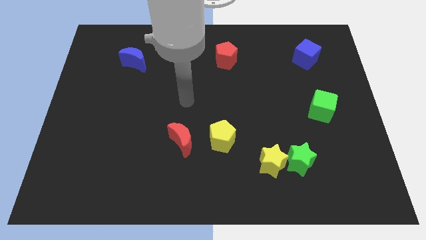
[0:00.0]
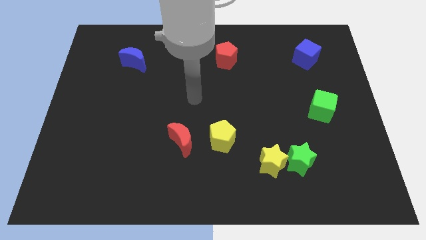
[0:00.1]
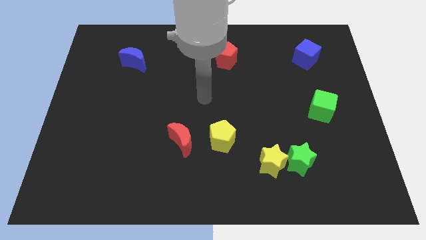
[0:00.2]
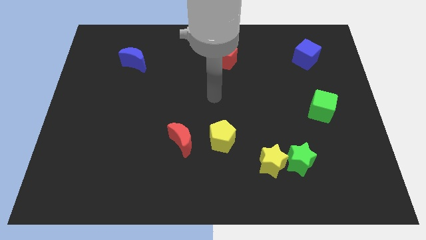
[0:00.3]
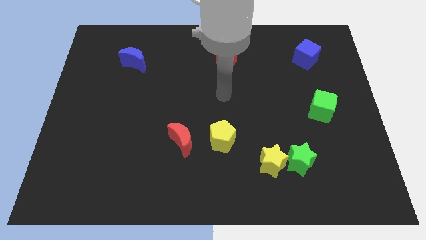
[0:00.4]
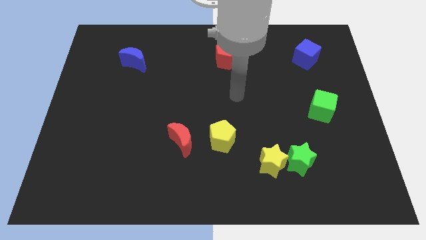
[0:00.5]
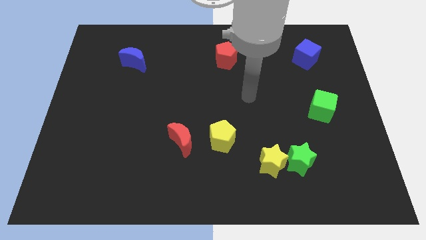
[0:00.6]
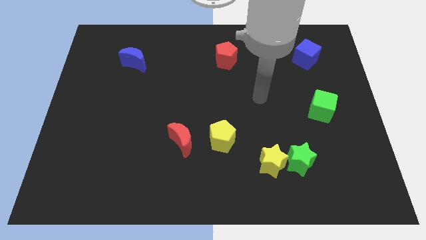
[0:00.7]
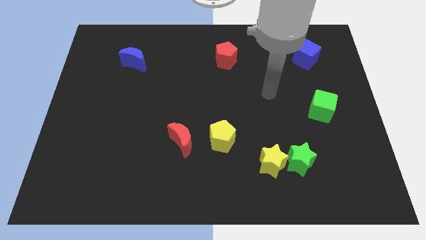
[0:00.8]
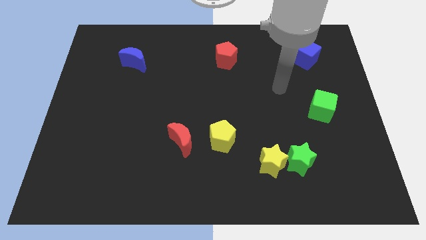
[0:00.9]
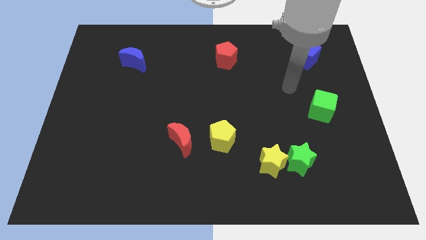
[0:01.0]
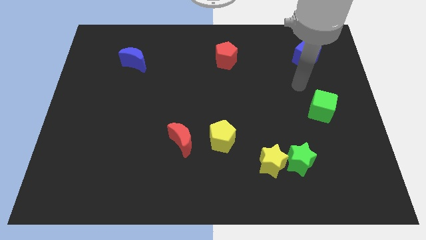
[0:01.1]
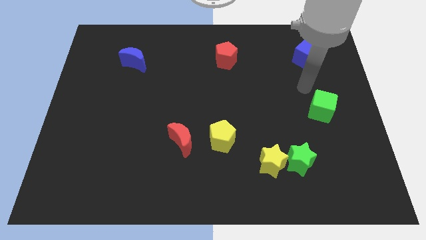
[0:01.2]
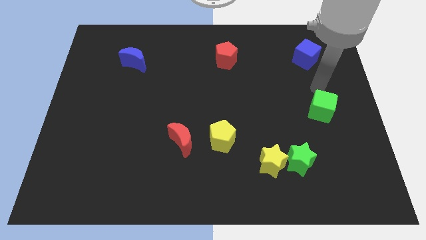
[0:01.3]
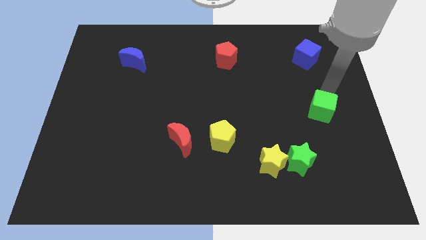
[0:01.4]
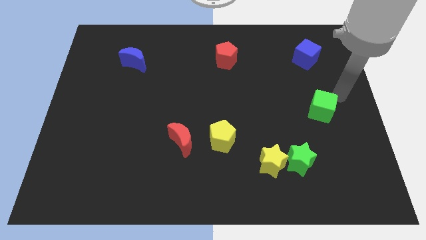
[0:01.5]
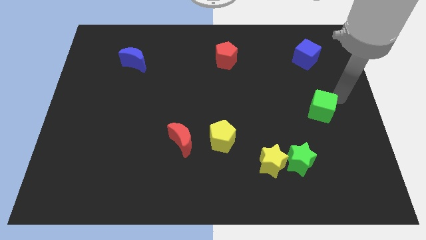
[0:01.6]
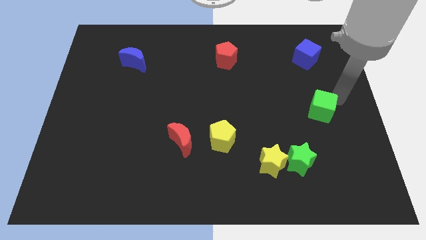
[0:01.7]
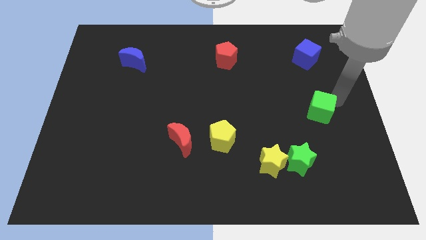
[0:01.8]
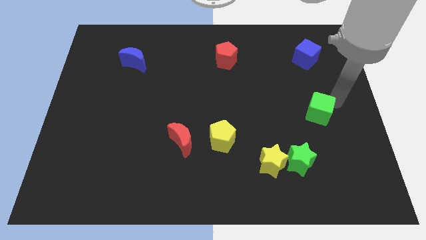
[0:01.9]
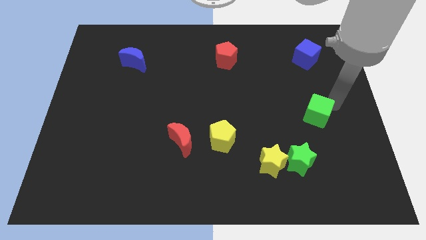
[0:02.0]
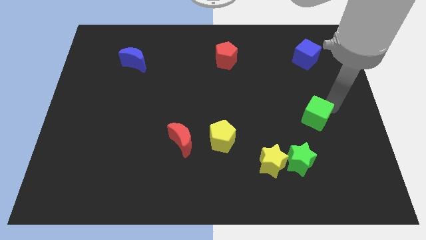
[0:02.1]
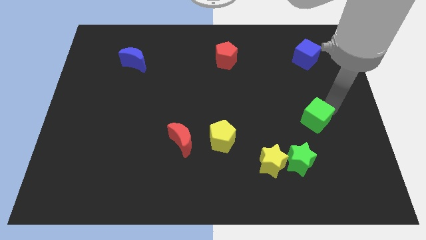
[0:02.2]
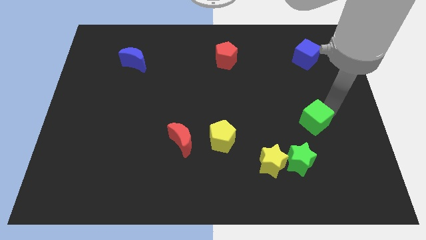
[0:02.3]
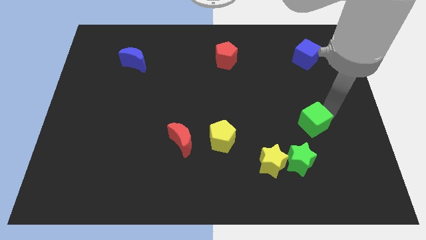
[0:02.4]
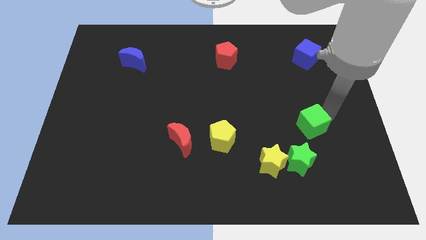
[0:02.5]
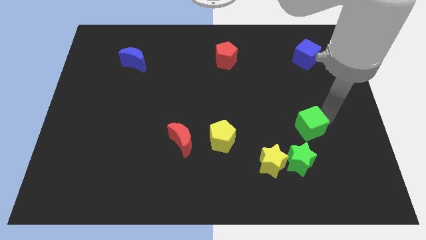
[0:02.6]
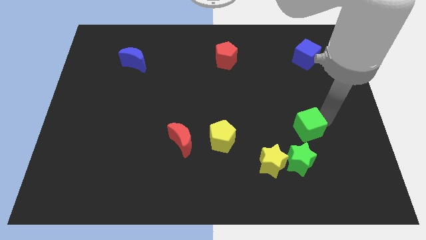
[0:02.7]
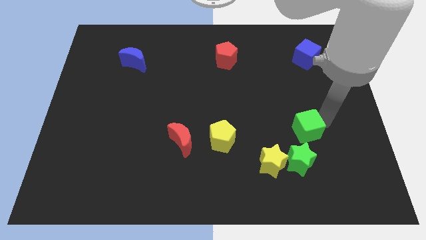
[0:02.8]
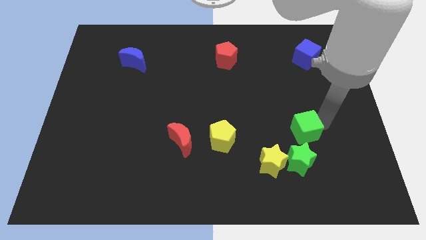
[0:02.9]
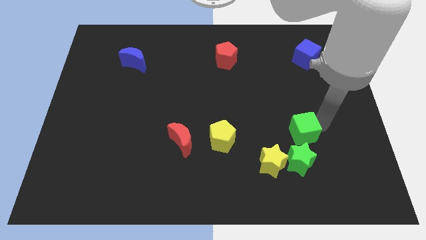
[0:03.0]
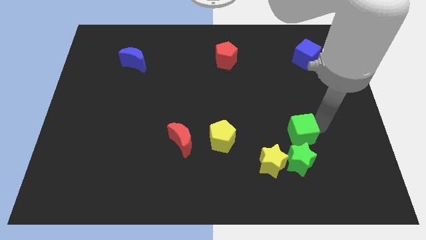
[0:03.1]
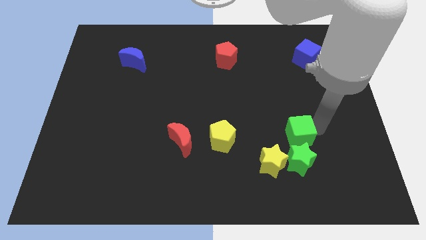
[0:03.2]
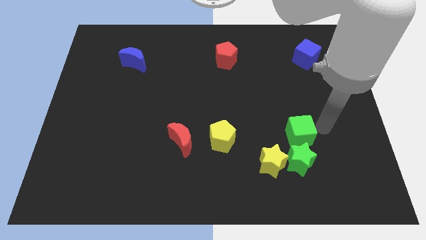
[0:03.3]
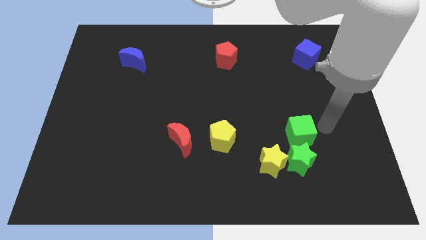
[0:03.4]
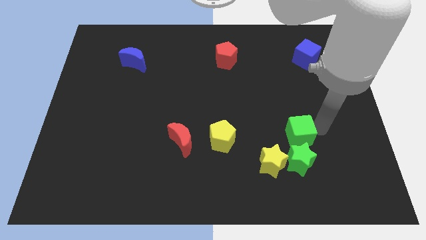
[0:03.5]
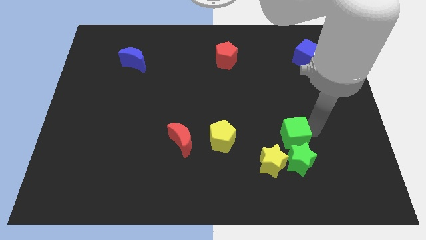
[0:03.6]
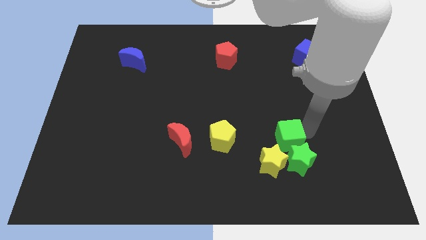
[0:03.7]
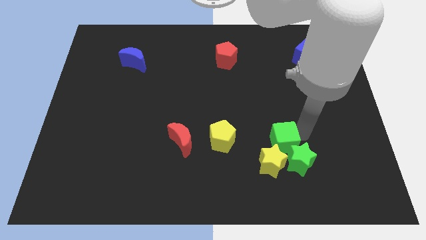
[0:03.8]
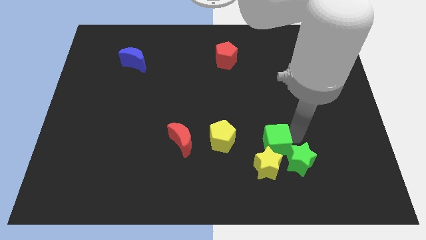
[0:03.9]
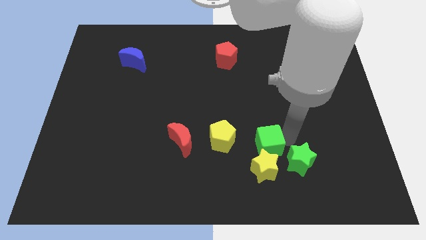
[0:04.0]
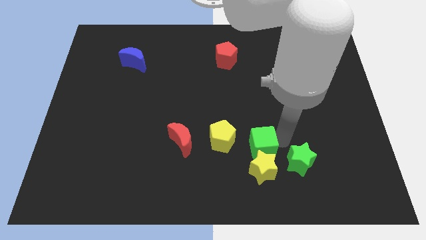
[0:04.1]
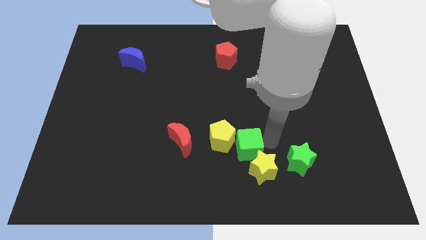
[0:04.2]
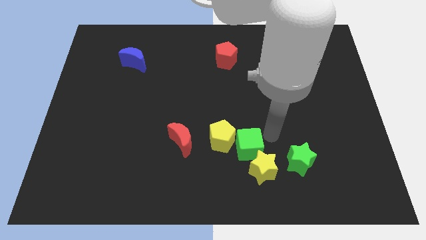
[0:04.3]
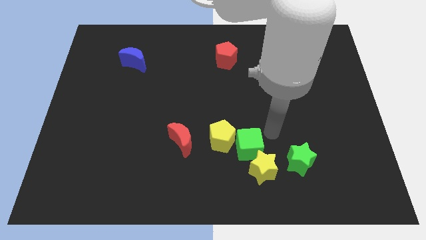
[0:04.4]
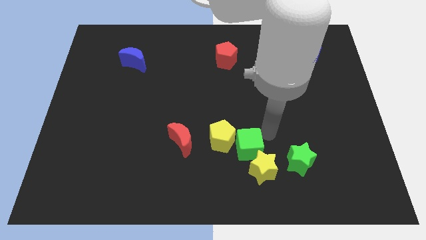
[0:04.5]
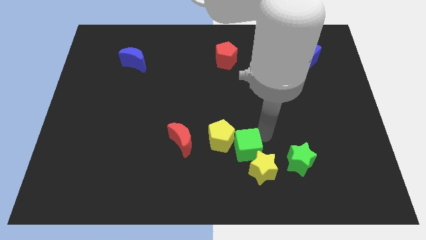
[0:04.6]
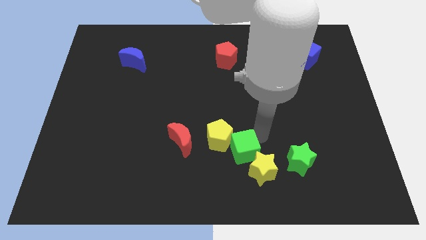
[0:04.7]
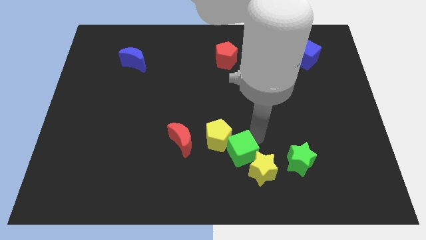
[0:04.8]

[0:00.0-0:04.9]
slide the green cube just left of the yellow star

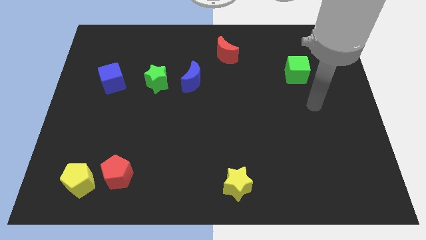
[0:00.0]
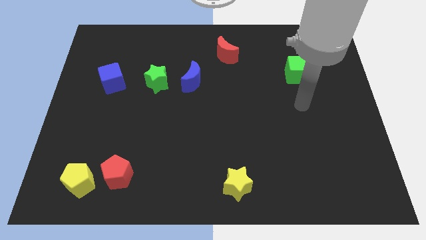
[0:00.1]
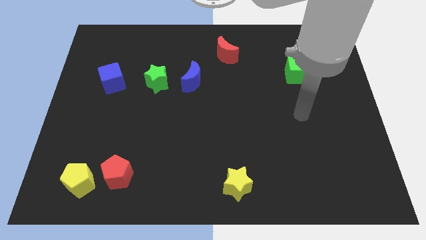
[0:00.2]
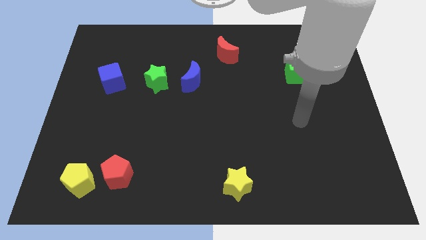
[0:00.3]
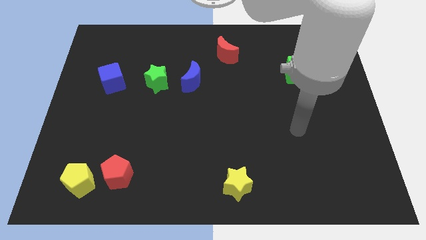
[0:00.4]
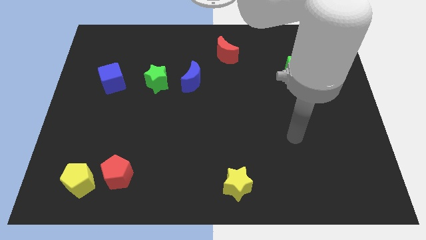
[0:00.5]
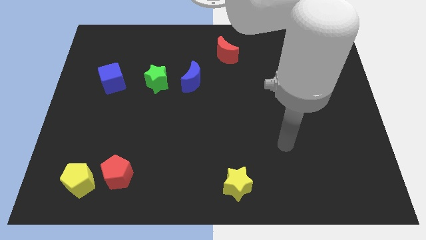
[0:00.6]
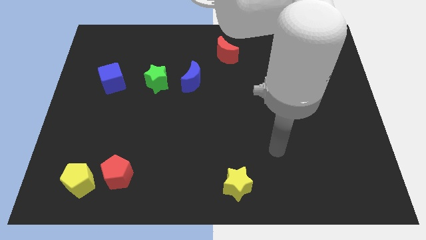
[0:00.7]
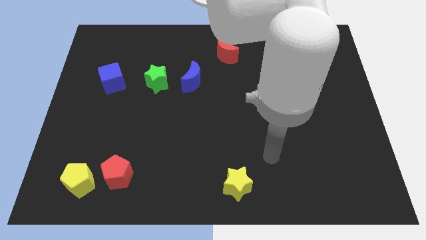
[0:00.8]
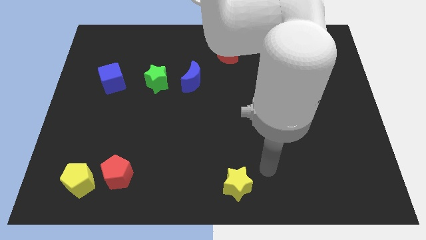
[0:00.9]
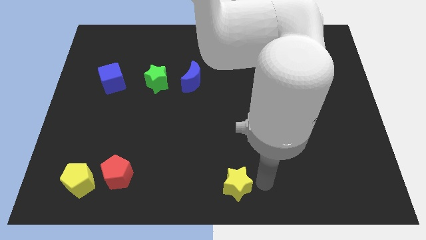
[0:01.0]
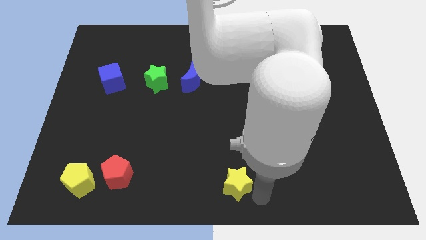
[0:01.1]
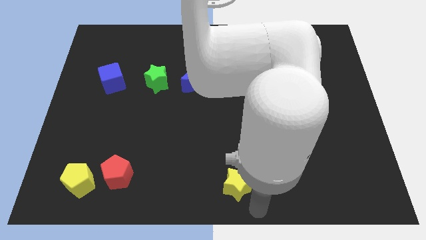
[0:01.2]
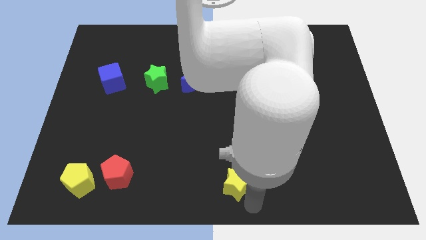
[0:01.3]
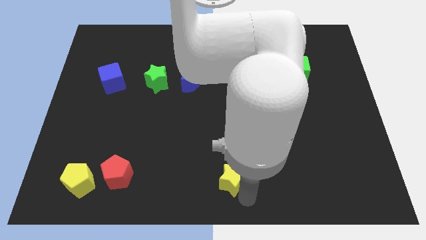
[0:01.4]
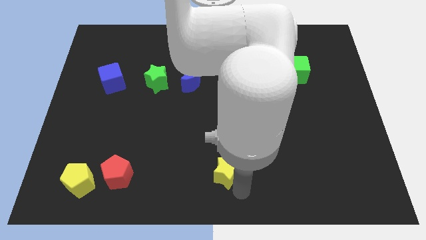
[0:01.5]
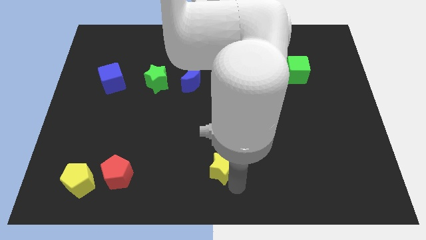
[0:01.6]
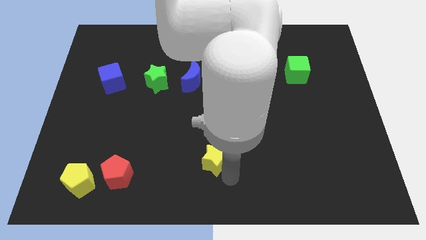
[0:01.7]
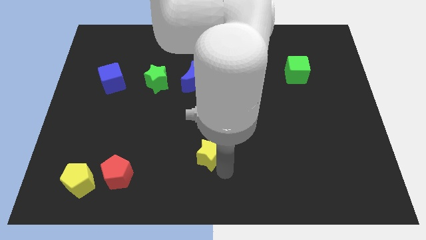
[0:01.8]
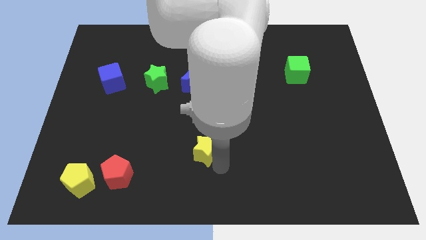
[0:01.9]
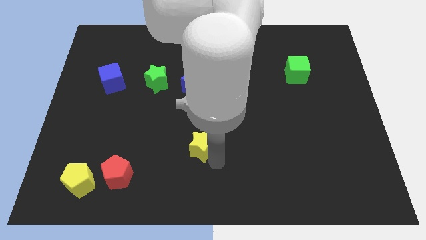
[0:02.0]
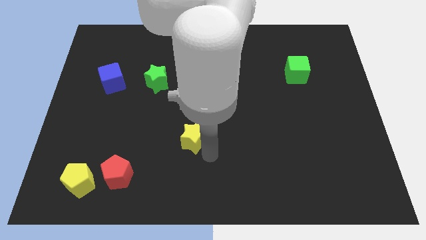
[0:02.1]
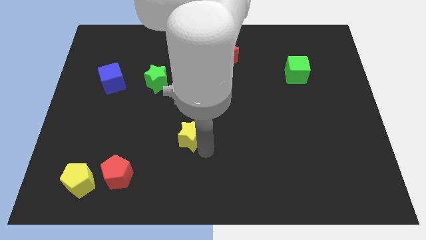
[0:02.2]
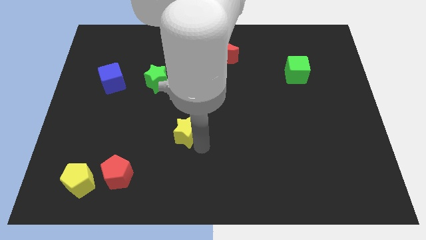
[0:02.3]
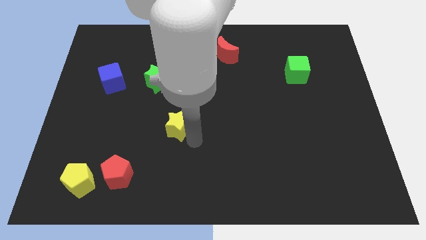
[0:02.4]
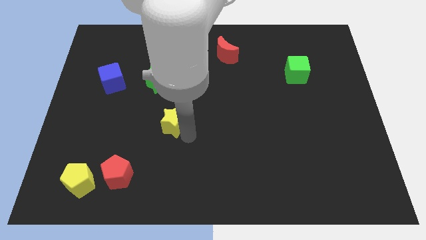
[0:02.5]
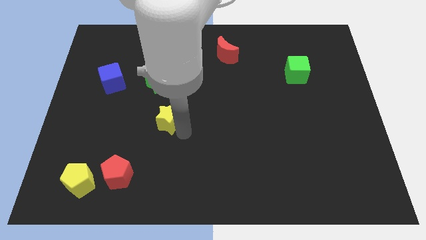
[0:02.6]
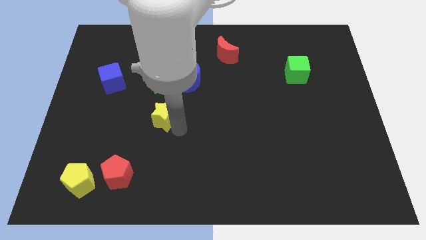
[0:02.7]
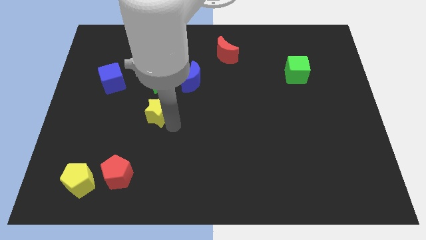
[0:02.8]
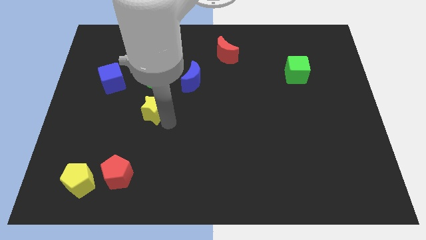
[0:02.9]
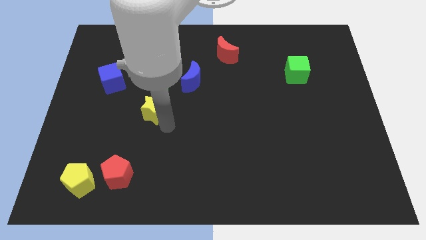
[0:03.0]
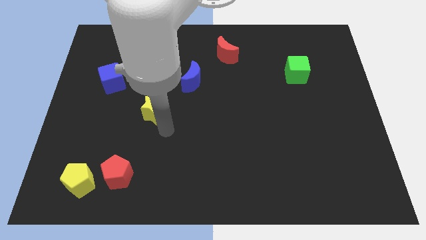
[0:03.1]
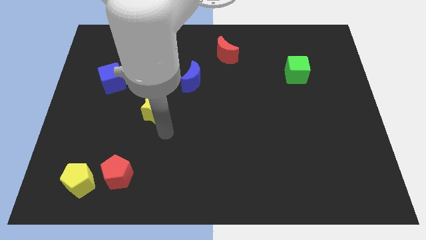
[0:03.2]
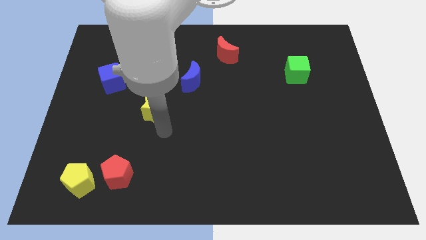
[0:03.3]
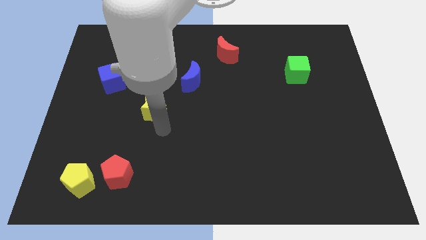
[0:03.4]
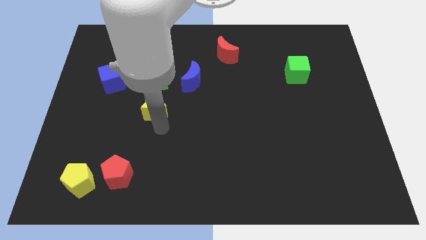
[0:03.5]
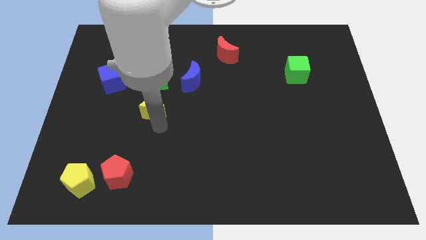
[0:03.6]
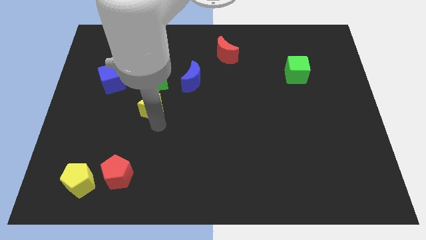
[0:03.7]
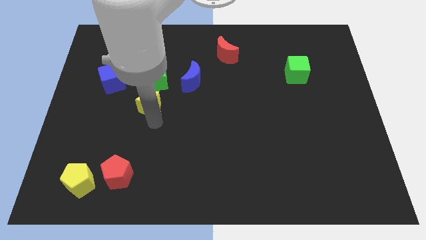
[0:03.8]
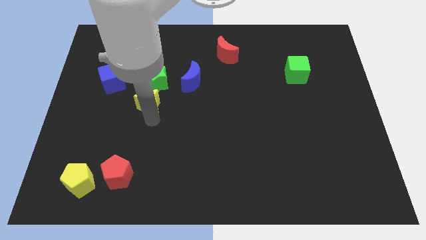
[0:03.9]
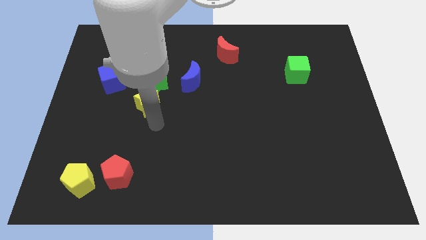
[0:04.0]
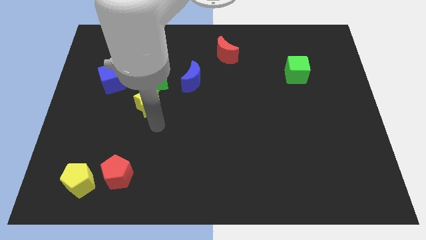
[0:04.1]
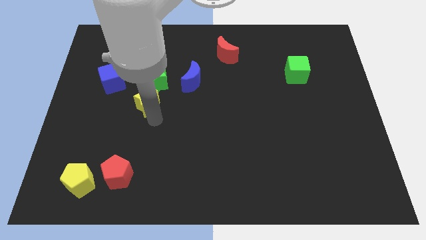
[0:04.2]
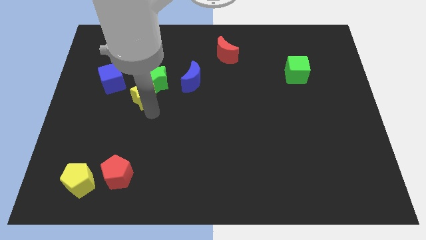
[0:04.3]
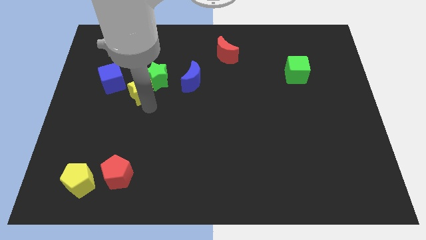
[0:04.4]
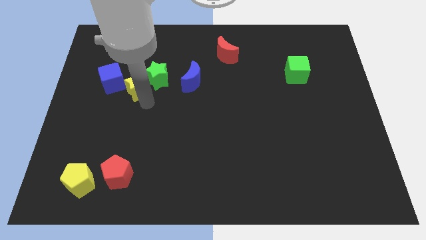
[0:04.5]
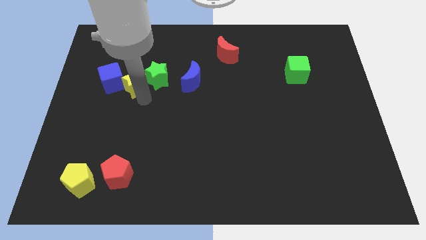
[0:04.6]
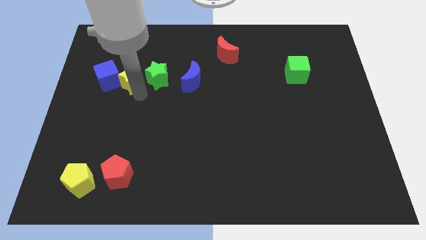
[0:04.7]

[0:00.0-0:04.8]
slide the yellow star diagonally up and to the left of the green star
